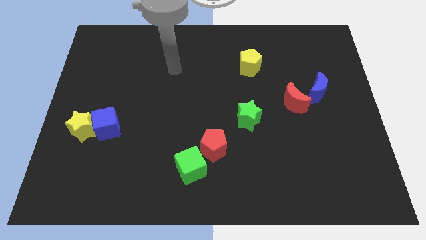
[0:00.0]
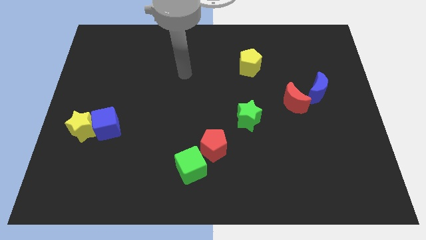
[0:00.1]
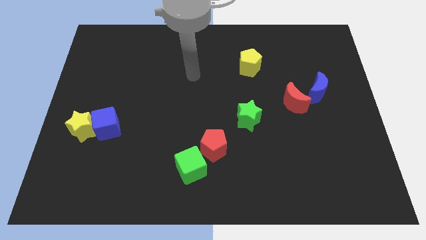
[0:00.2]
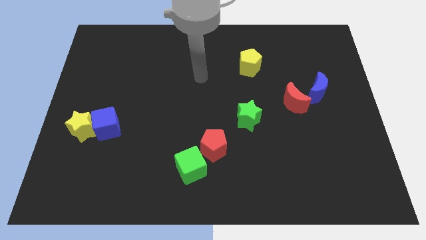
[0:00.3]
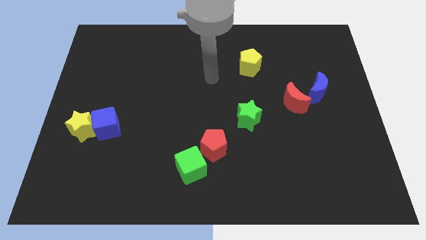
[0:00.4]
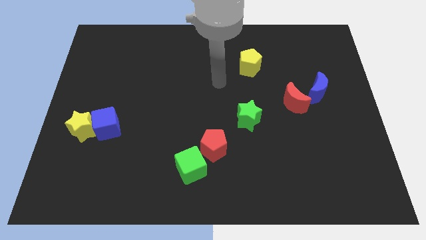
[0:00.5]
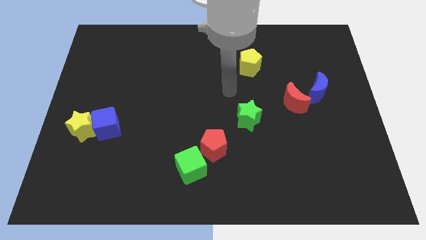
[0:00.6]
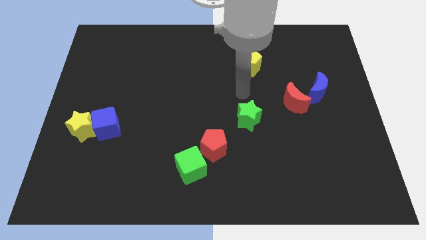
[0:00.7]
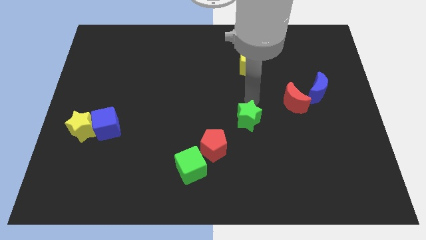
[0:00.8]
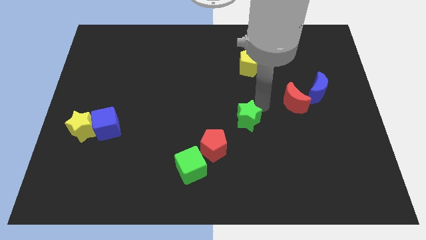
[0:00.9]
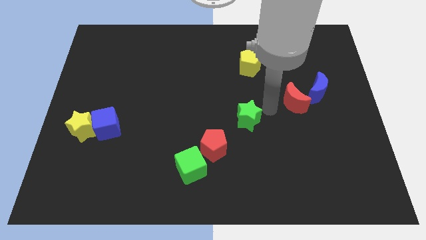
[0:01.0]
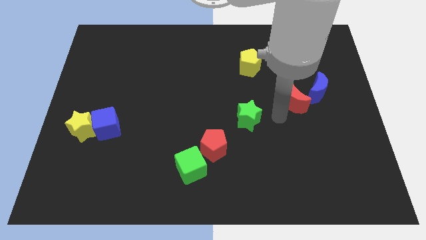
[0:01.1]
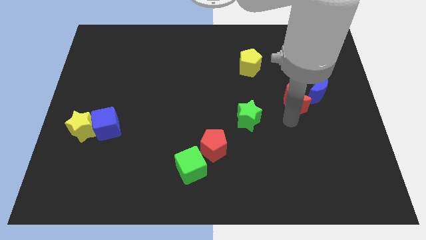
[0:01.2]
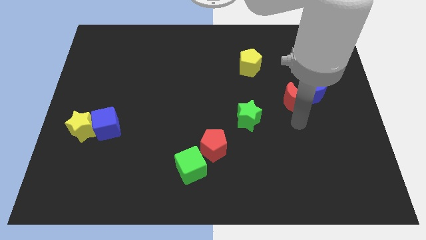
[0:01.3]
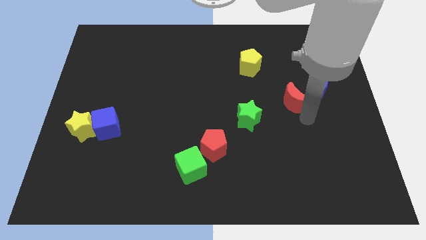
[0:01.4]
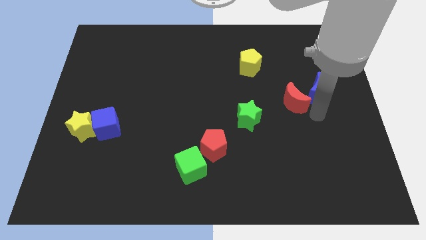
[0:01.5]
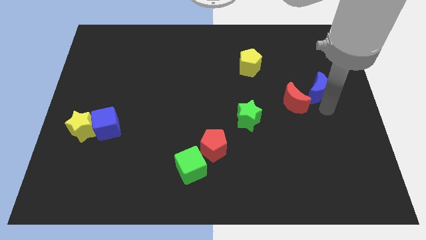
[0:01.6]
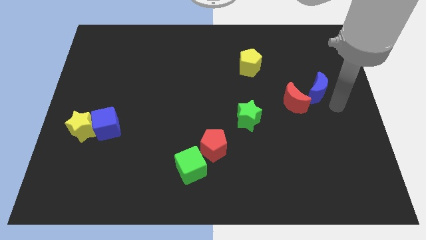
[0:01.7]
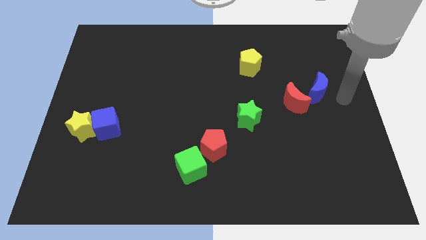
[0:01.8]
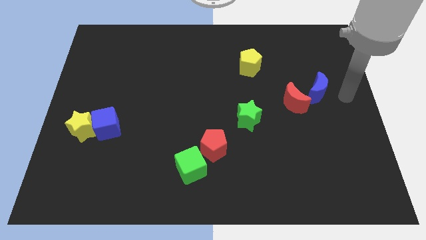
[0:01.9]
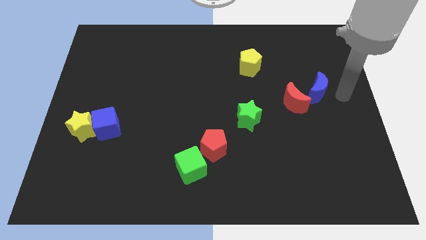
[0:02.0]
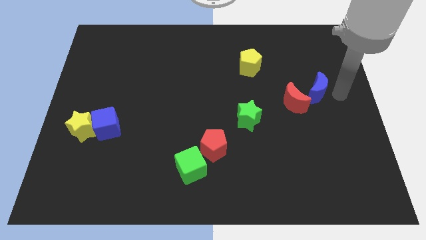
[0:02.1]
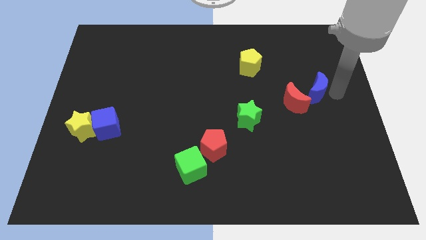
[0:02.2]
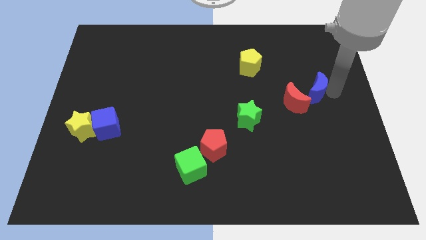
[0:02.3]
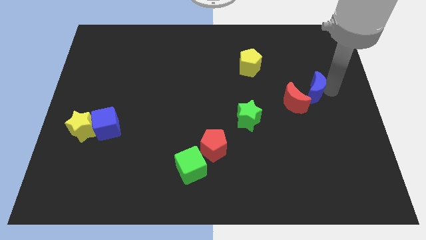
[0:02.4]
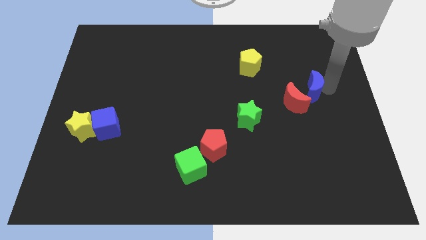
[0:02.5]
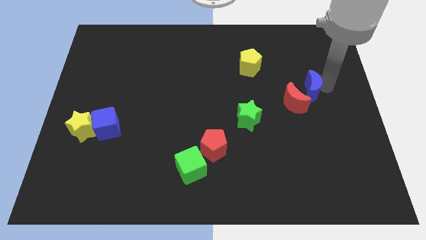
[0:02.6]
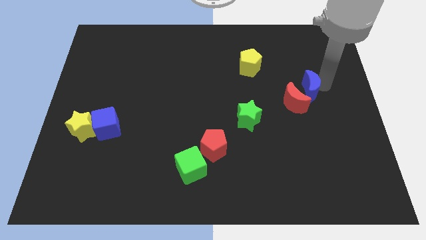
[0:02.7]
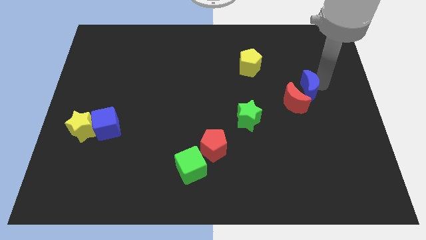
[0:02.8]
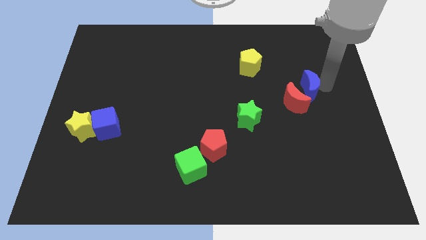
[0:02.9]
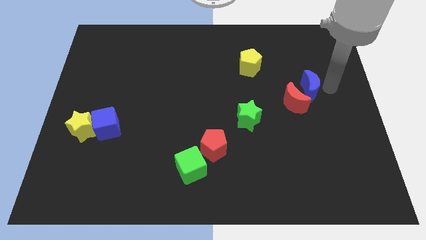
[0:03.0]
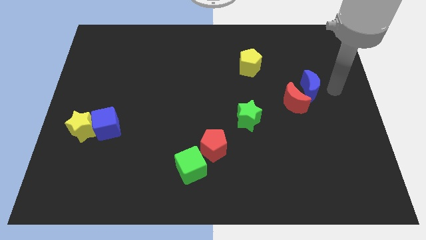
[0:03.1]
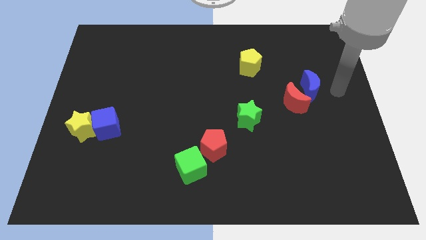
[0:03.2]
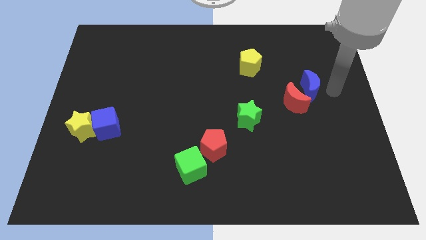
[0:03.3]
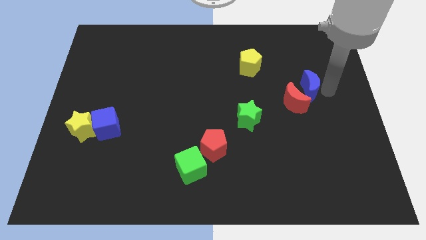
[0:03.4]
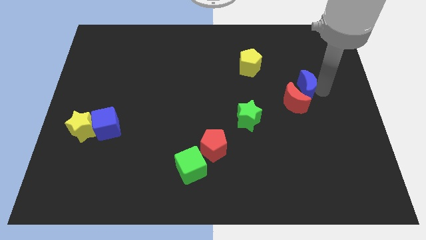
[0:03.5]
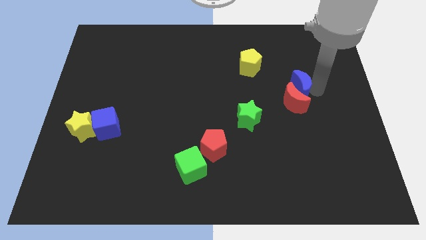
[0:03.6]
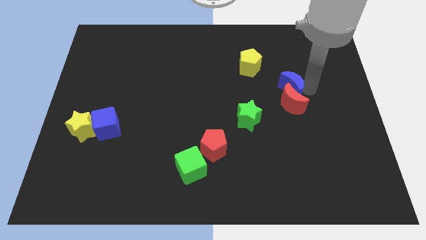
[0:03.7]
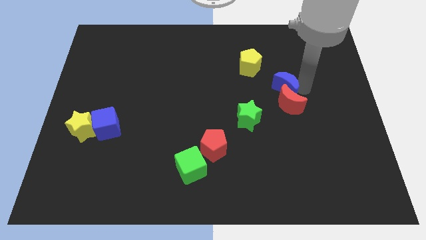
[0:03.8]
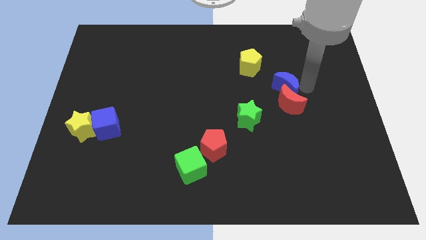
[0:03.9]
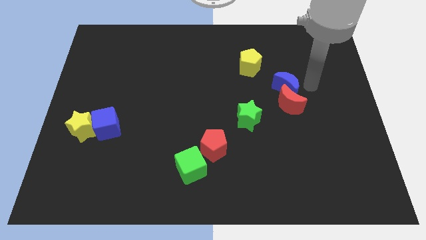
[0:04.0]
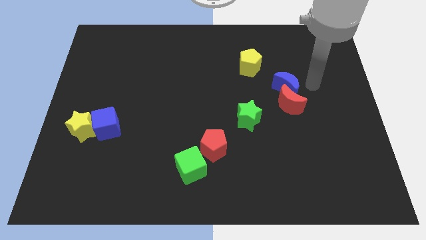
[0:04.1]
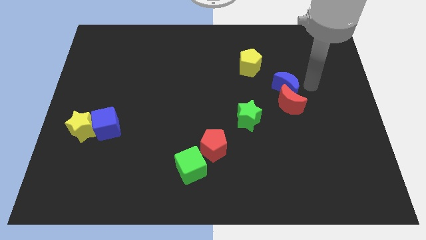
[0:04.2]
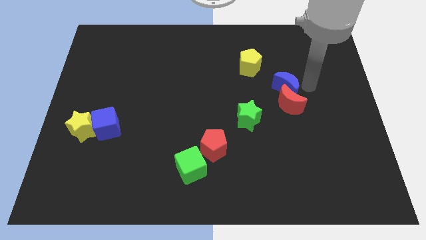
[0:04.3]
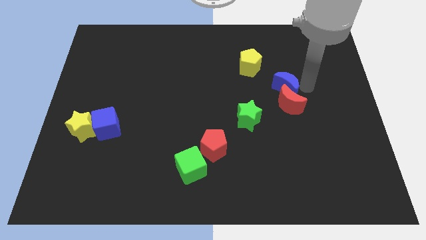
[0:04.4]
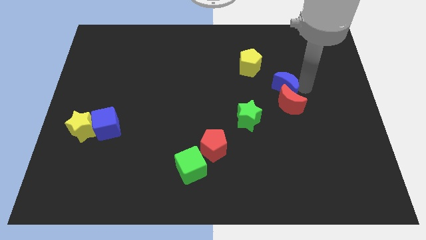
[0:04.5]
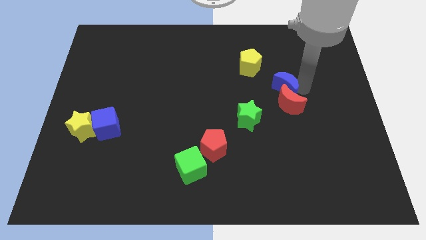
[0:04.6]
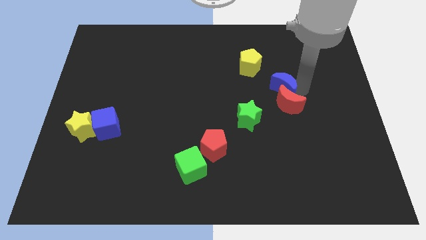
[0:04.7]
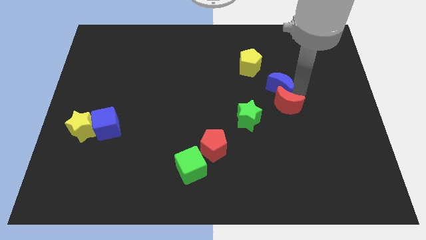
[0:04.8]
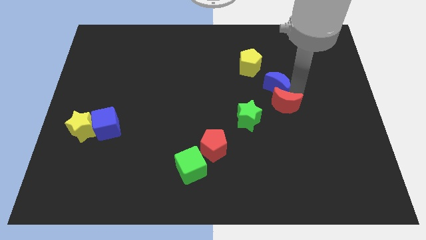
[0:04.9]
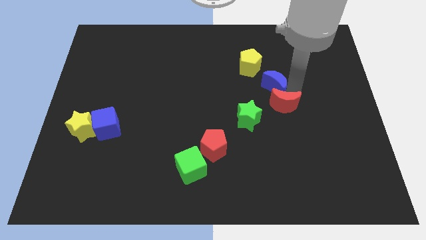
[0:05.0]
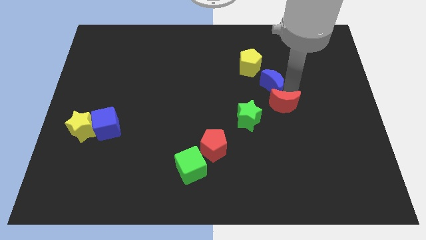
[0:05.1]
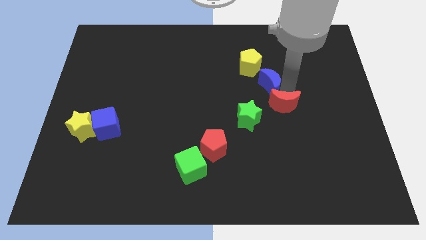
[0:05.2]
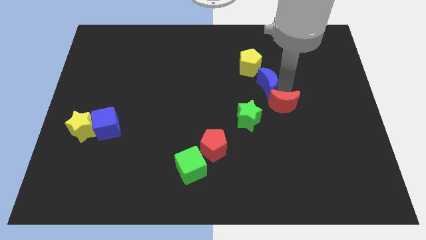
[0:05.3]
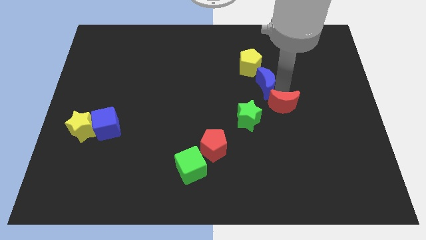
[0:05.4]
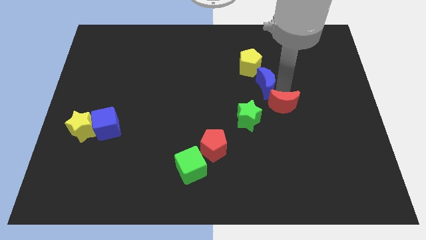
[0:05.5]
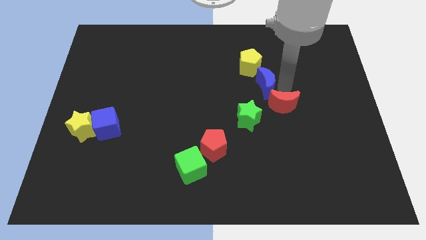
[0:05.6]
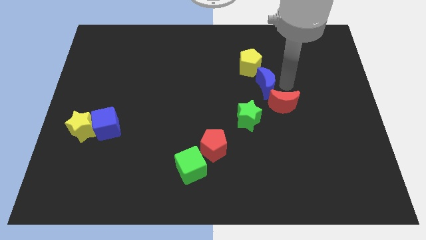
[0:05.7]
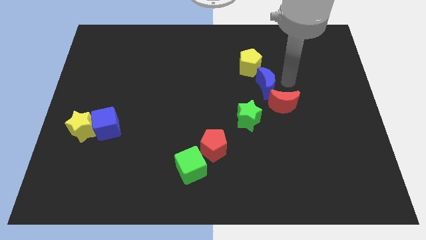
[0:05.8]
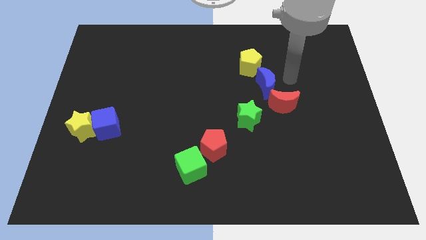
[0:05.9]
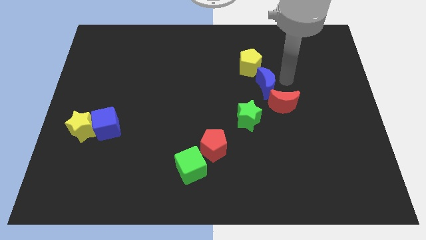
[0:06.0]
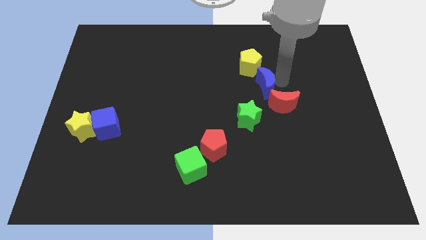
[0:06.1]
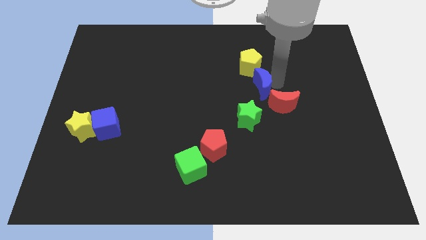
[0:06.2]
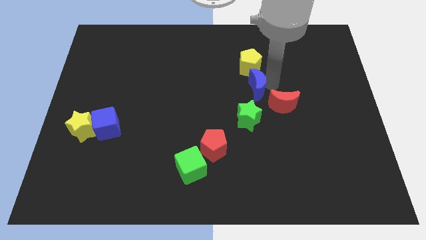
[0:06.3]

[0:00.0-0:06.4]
push the blue moon to the center

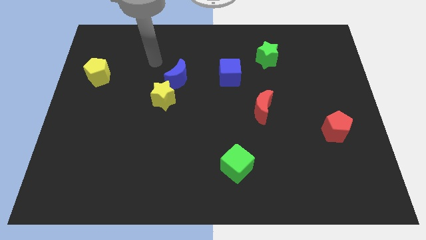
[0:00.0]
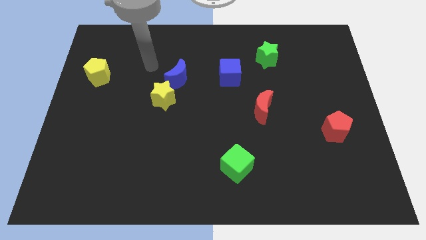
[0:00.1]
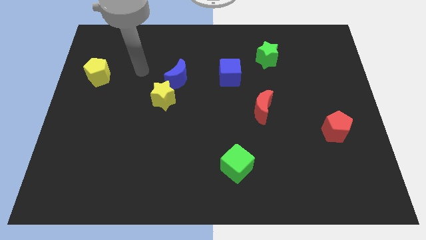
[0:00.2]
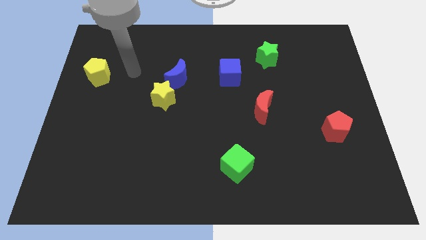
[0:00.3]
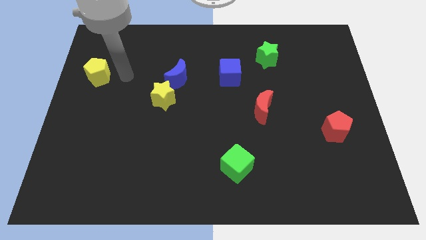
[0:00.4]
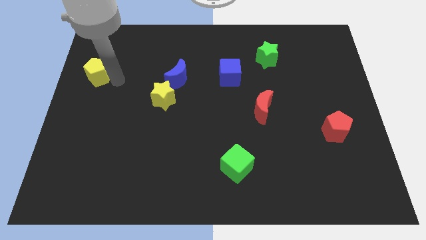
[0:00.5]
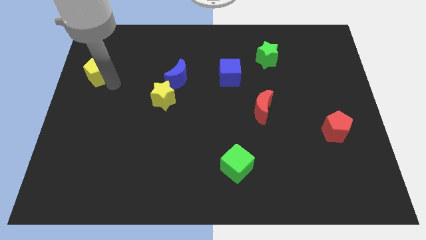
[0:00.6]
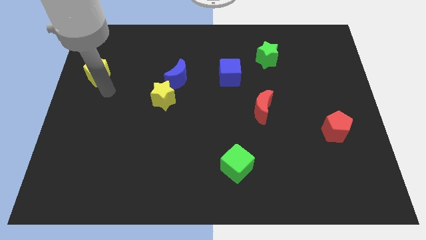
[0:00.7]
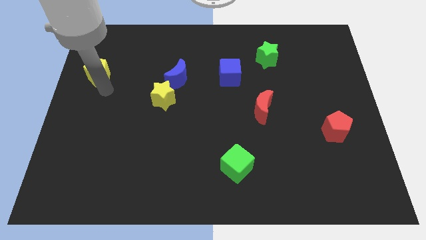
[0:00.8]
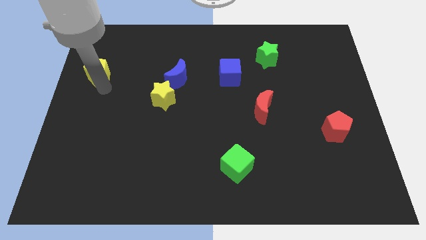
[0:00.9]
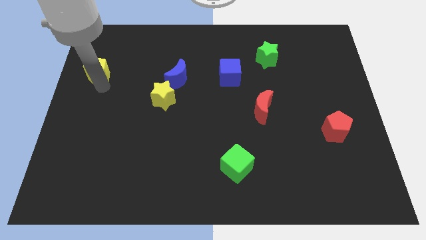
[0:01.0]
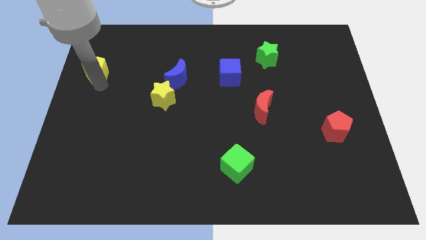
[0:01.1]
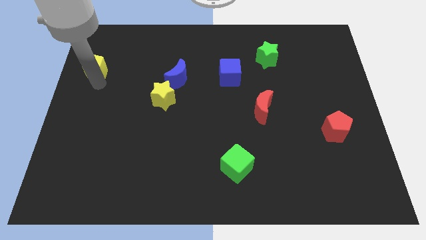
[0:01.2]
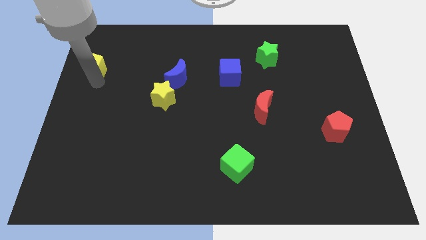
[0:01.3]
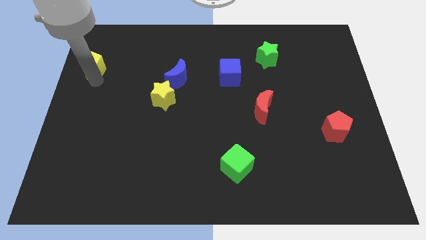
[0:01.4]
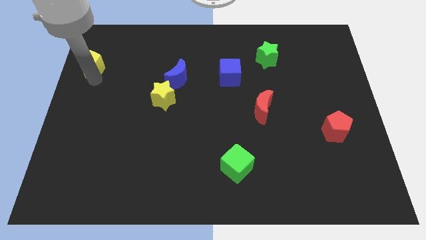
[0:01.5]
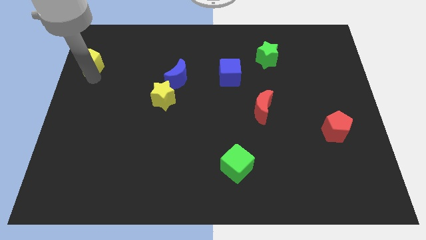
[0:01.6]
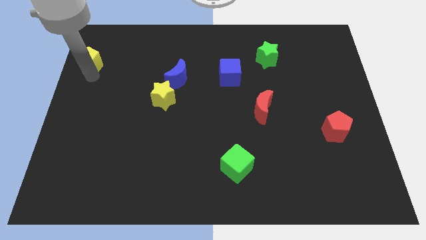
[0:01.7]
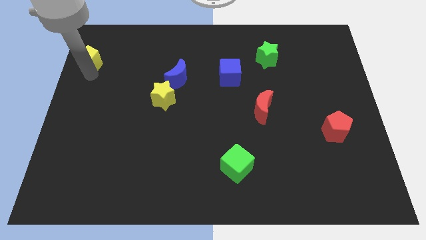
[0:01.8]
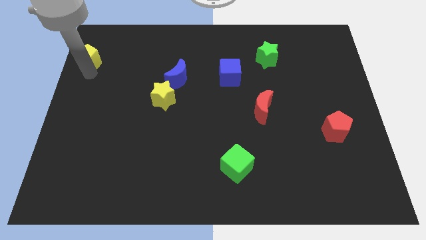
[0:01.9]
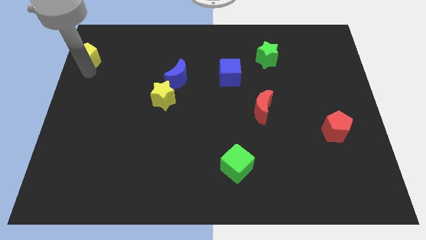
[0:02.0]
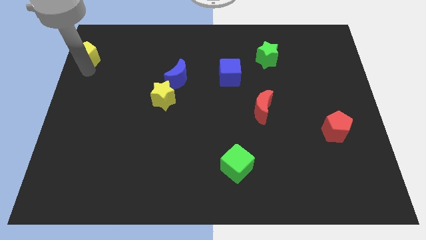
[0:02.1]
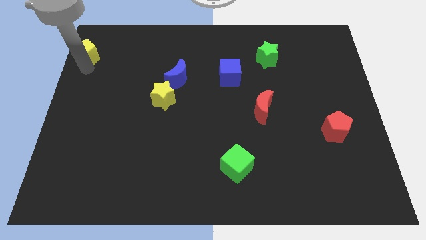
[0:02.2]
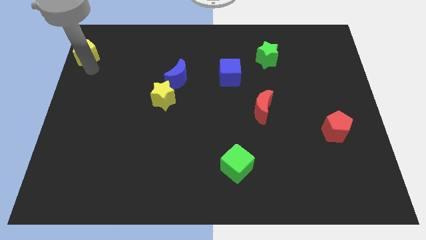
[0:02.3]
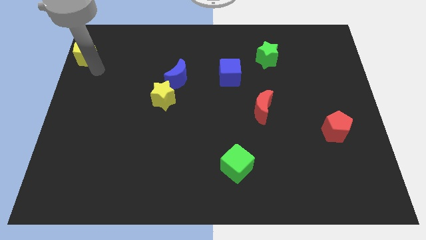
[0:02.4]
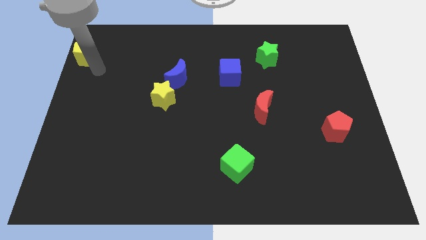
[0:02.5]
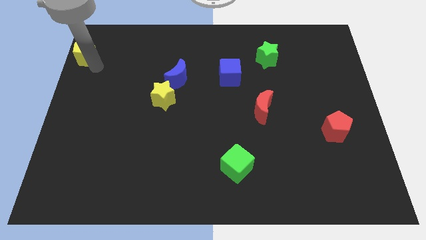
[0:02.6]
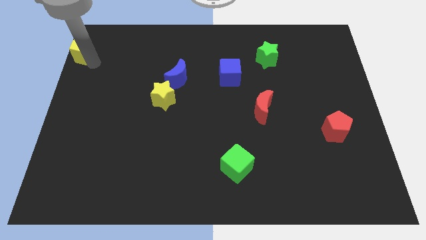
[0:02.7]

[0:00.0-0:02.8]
put the yellow pentagon to the upper left corner
